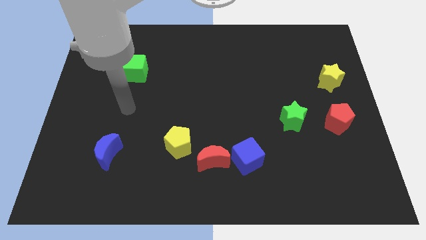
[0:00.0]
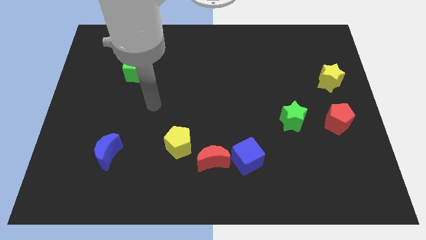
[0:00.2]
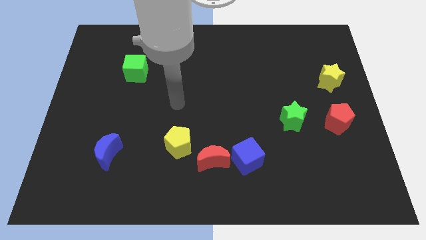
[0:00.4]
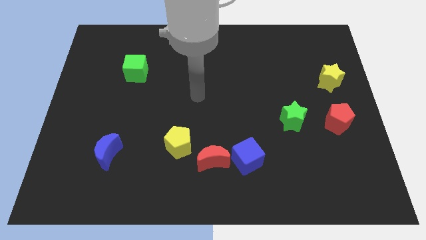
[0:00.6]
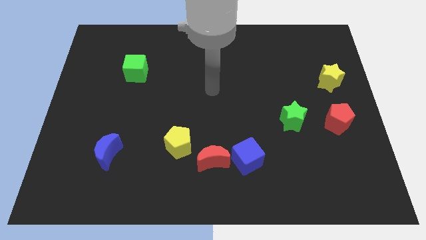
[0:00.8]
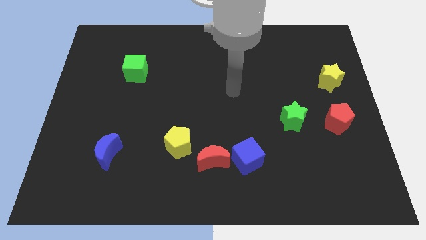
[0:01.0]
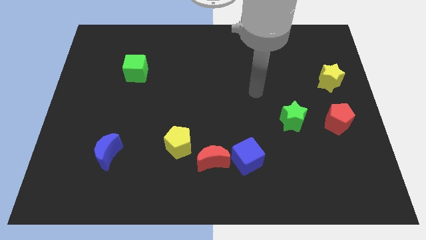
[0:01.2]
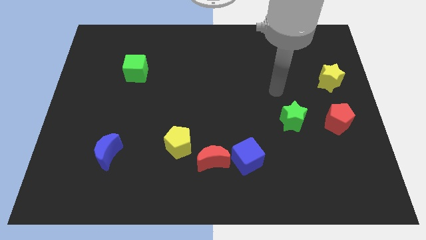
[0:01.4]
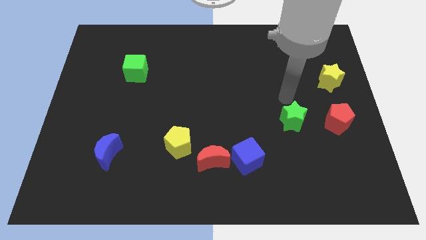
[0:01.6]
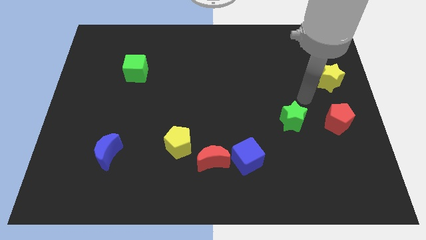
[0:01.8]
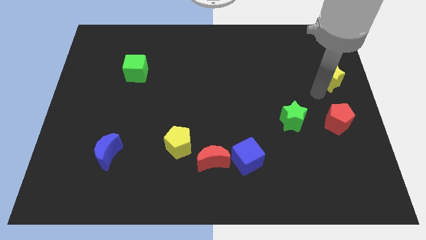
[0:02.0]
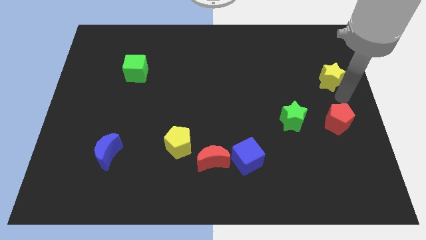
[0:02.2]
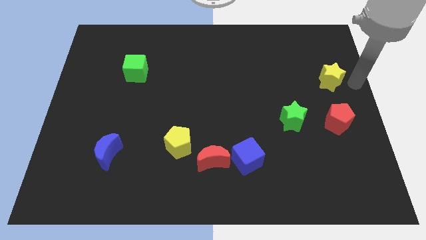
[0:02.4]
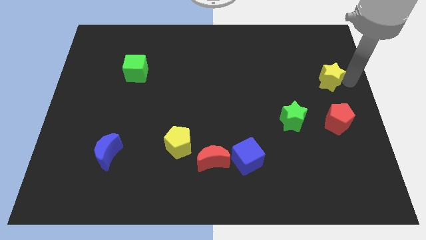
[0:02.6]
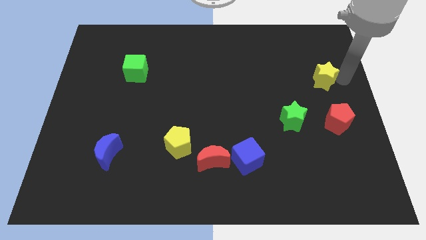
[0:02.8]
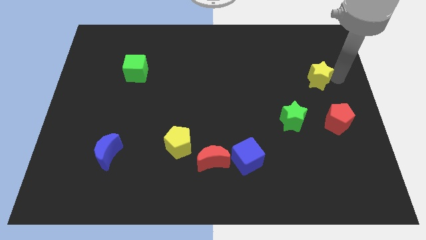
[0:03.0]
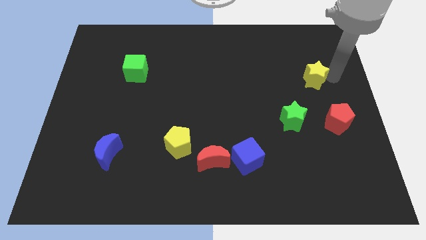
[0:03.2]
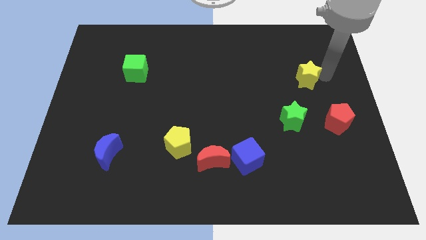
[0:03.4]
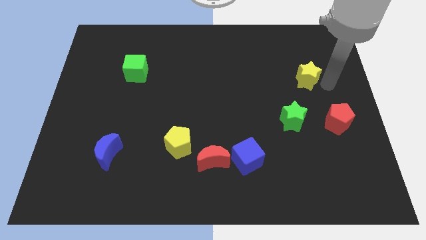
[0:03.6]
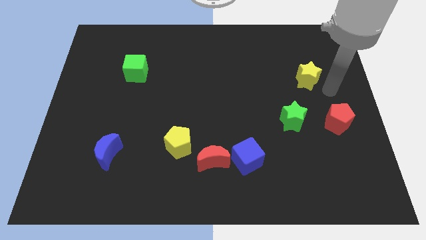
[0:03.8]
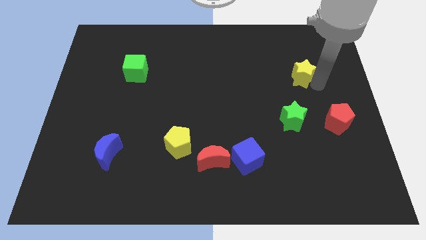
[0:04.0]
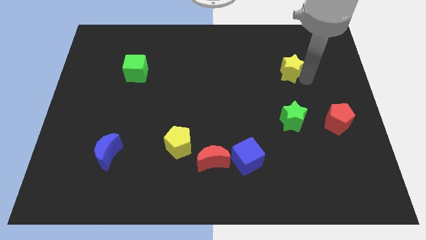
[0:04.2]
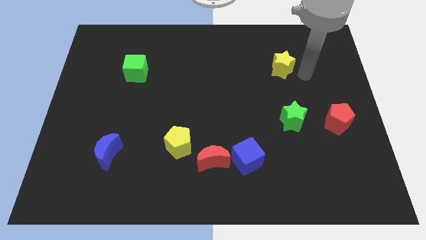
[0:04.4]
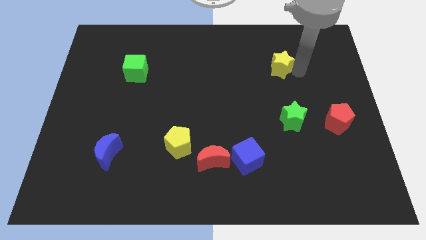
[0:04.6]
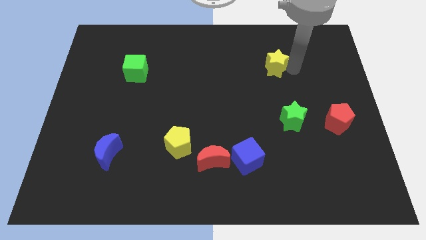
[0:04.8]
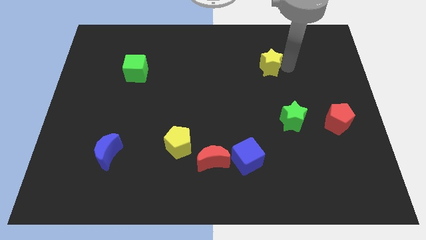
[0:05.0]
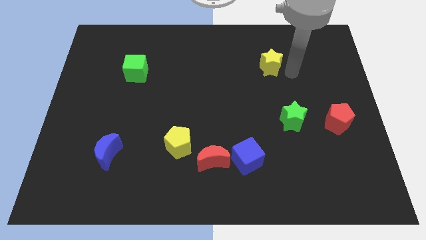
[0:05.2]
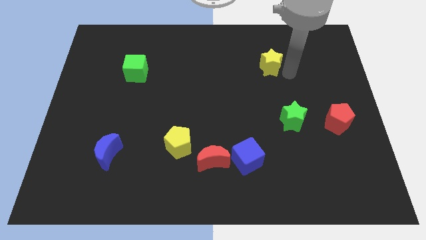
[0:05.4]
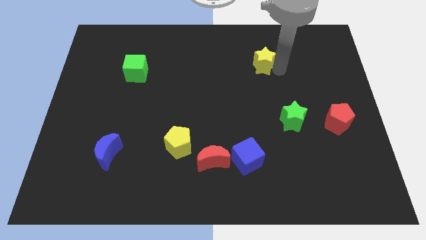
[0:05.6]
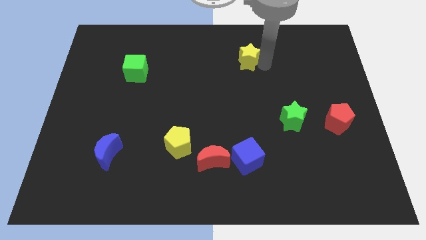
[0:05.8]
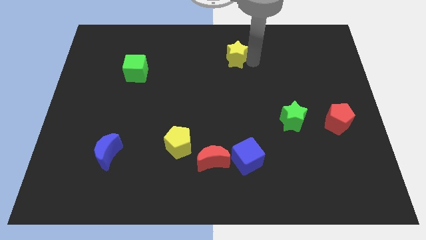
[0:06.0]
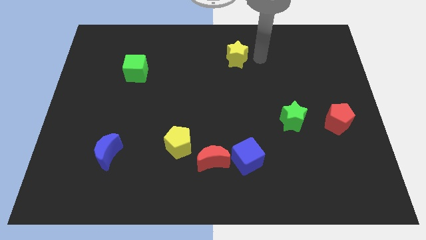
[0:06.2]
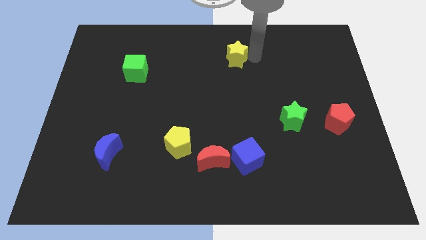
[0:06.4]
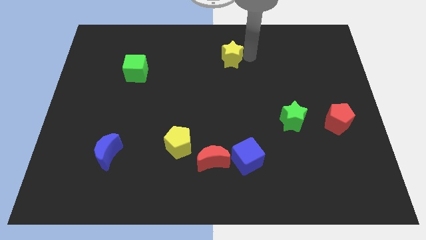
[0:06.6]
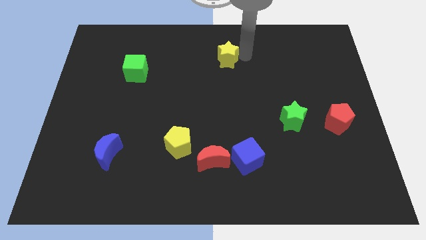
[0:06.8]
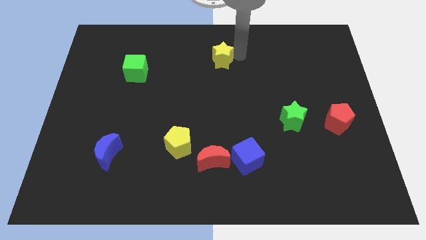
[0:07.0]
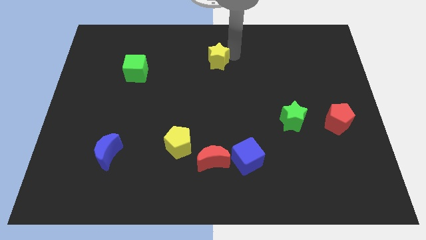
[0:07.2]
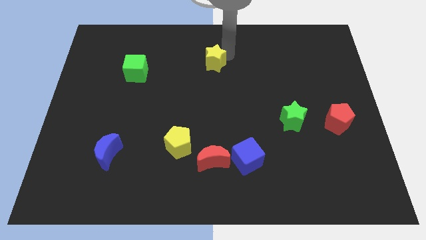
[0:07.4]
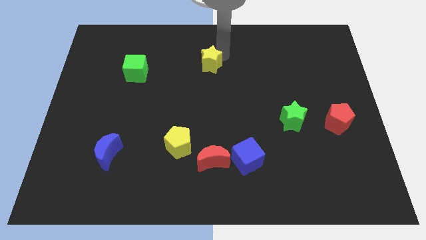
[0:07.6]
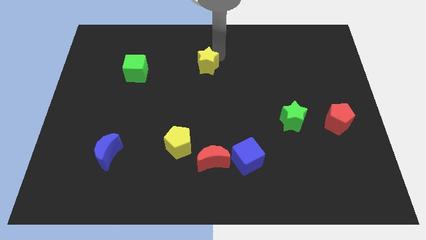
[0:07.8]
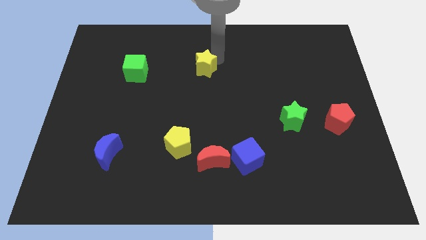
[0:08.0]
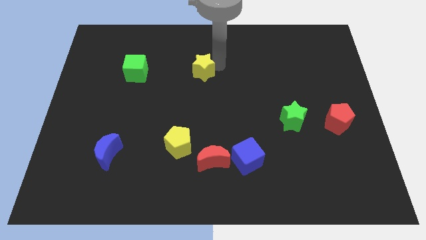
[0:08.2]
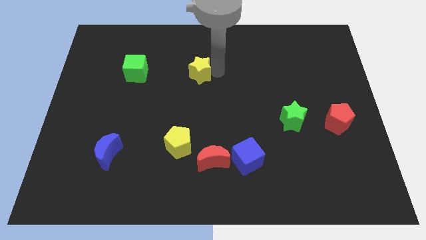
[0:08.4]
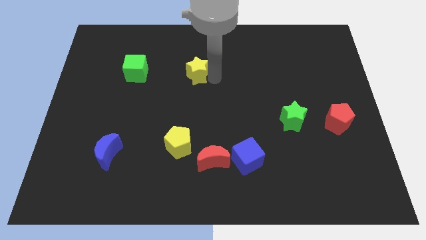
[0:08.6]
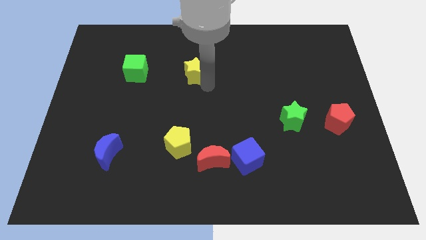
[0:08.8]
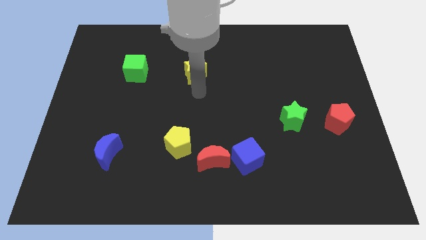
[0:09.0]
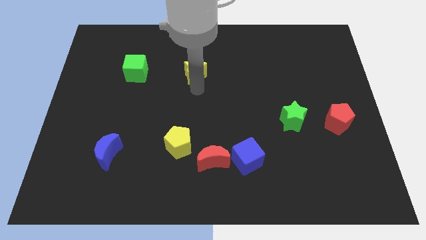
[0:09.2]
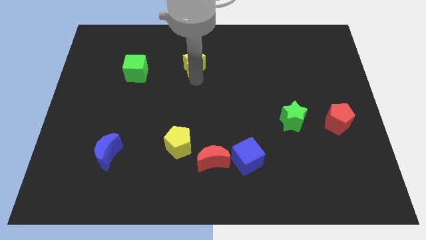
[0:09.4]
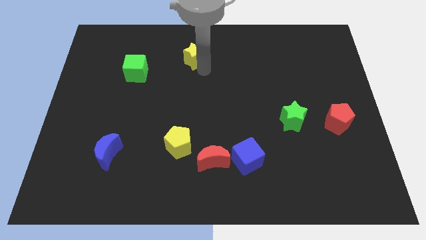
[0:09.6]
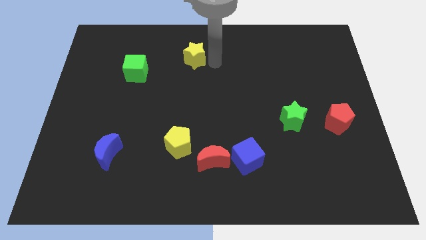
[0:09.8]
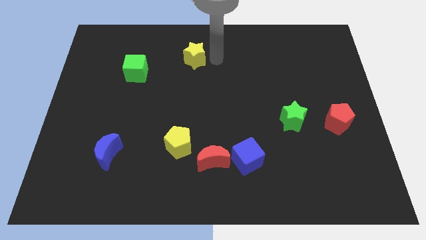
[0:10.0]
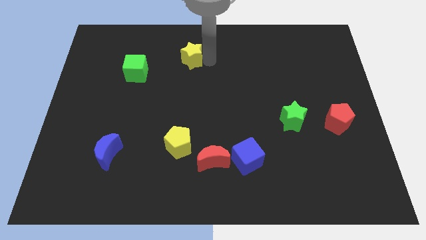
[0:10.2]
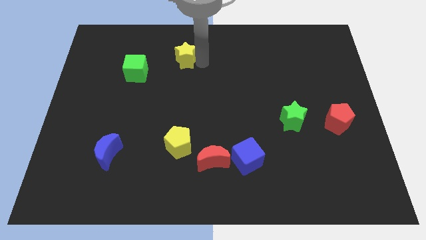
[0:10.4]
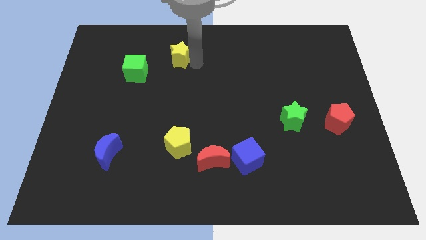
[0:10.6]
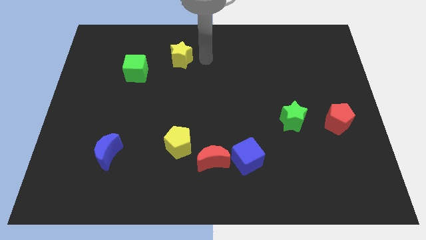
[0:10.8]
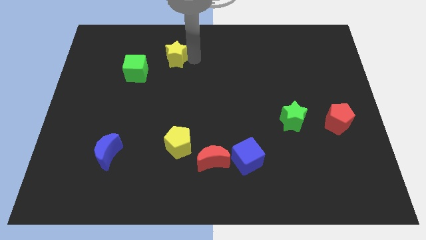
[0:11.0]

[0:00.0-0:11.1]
slide the yellow star to the top right side of the green cube

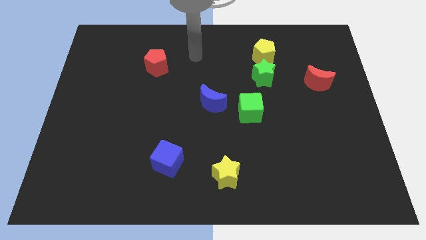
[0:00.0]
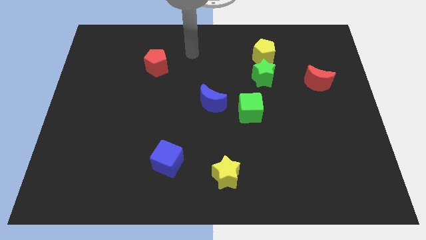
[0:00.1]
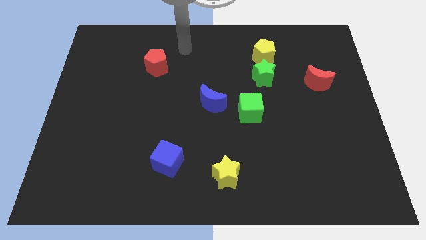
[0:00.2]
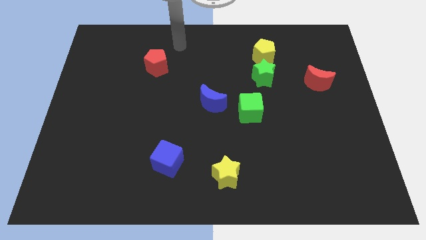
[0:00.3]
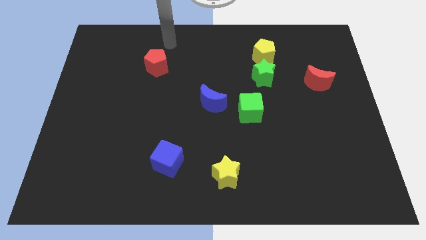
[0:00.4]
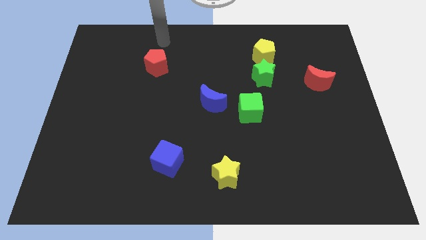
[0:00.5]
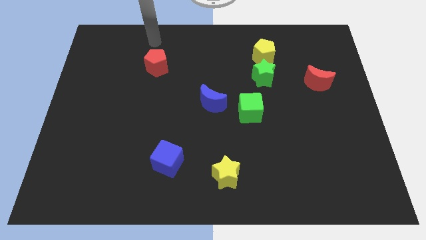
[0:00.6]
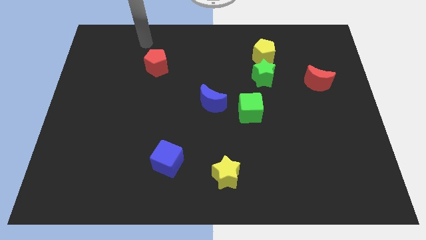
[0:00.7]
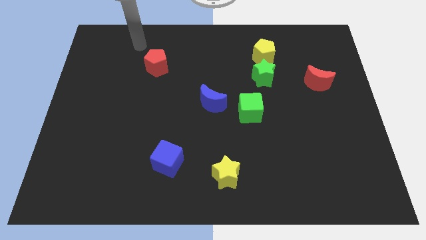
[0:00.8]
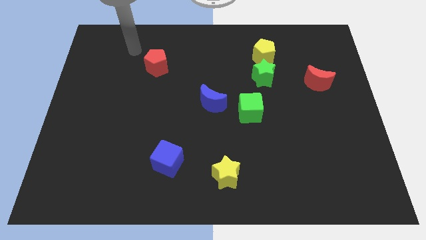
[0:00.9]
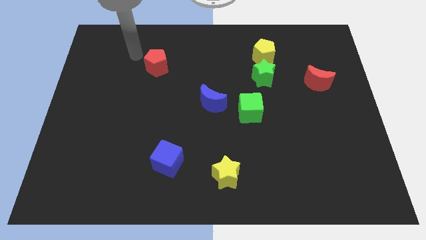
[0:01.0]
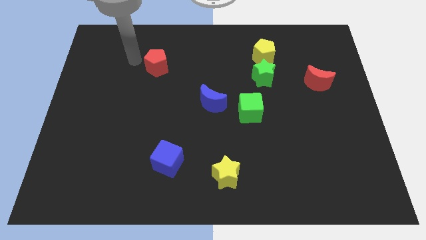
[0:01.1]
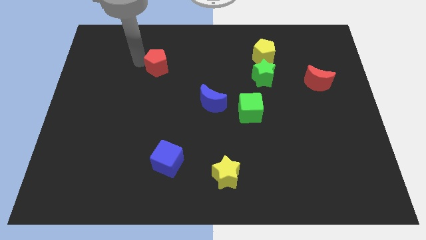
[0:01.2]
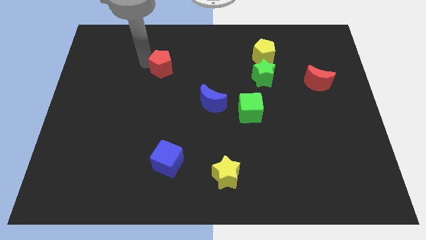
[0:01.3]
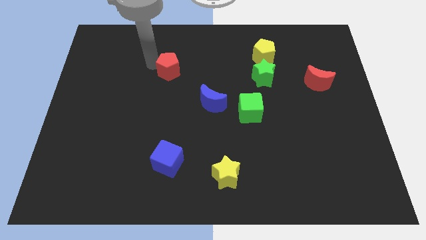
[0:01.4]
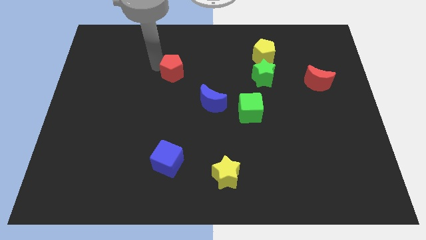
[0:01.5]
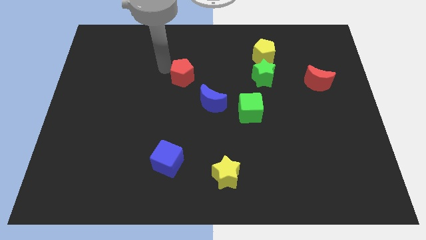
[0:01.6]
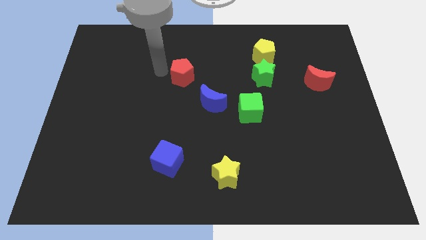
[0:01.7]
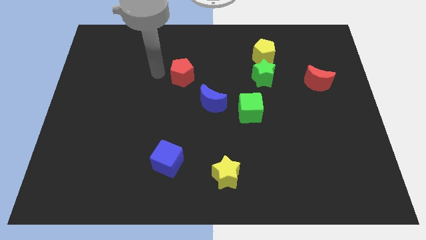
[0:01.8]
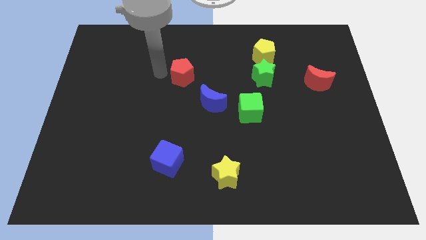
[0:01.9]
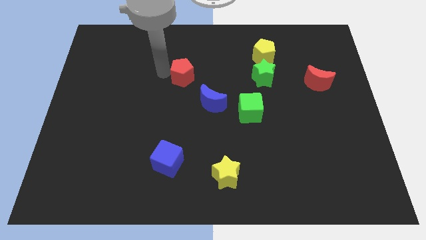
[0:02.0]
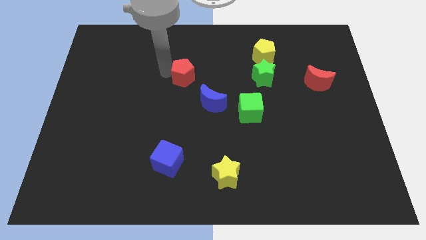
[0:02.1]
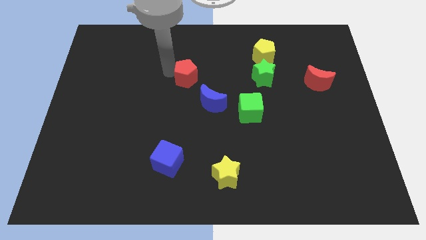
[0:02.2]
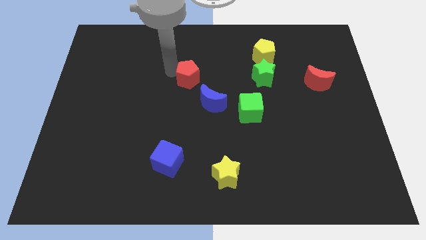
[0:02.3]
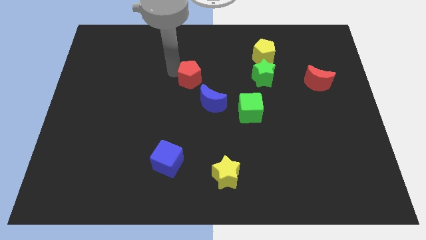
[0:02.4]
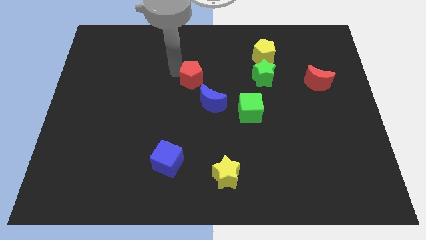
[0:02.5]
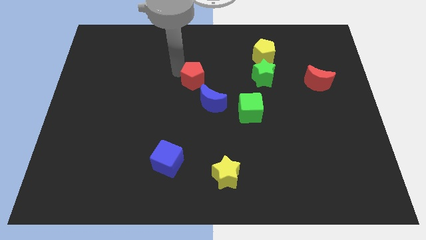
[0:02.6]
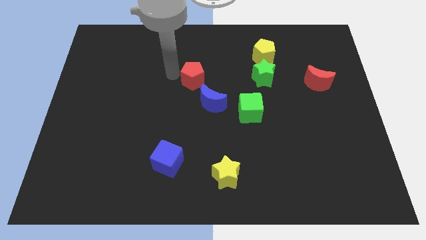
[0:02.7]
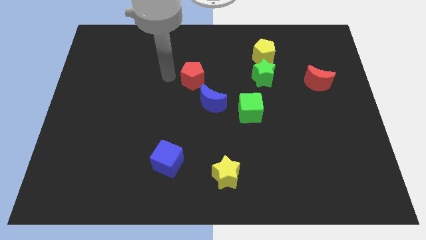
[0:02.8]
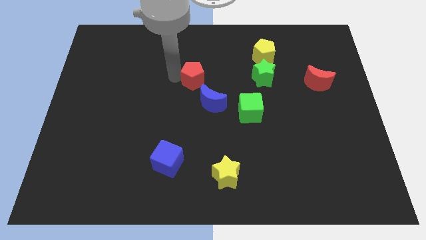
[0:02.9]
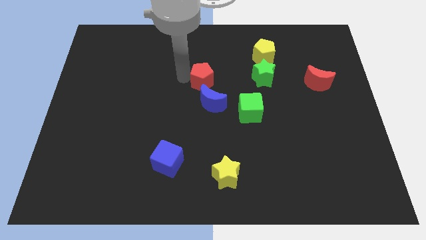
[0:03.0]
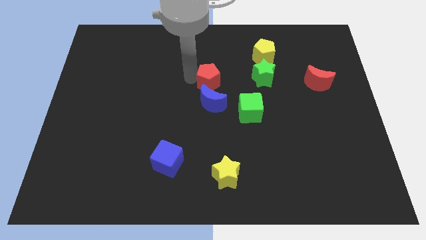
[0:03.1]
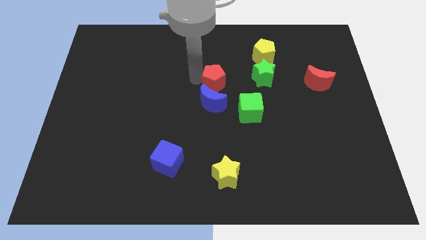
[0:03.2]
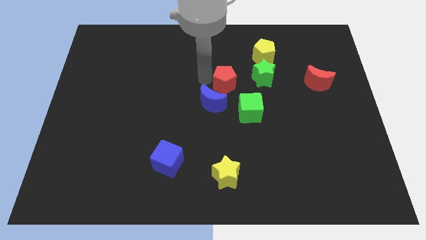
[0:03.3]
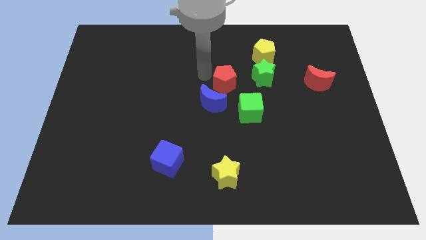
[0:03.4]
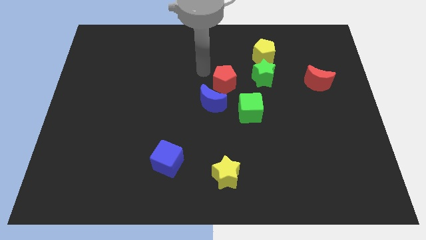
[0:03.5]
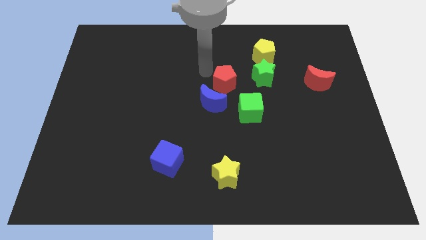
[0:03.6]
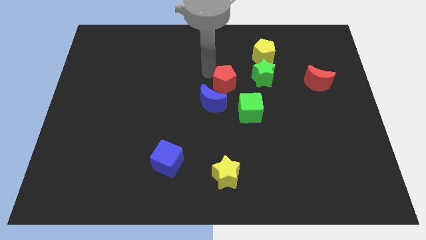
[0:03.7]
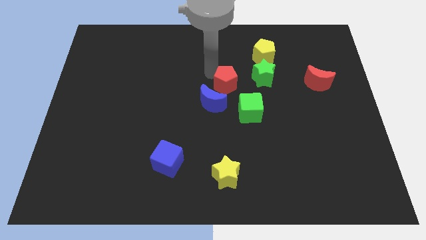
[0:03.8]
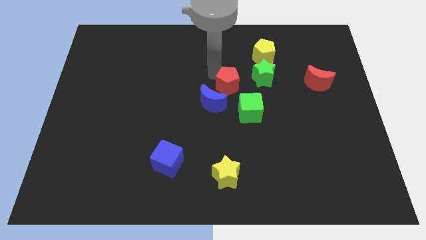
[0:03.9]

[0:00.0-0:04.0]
move the red pentagon to the bottom left of the green star
